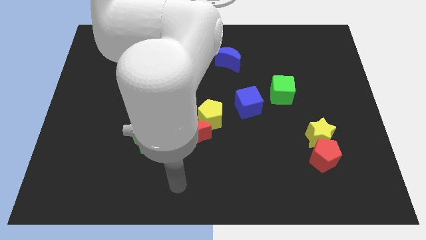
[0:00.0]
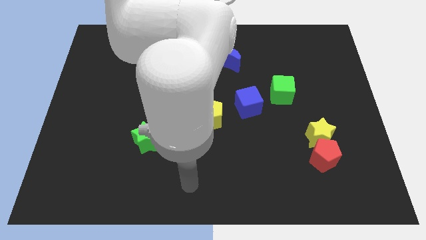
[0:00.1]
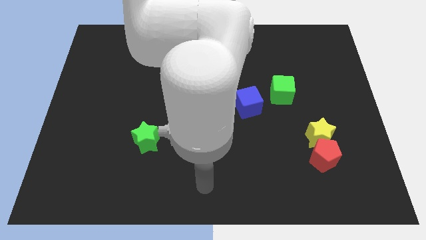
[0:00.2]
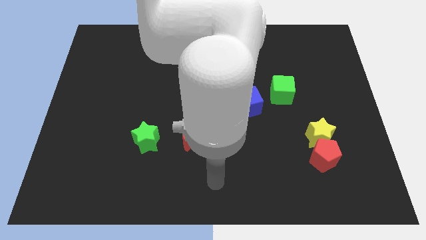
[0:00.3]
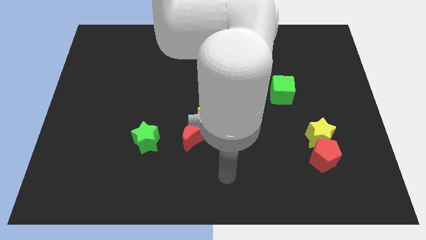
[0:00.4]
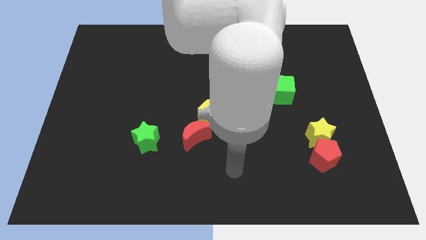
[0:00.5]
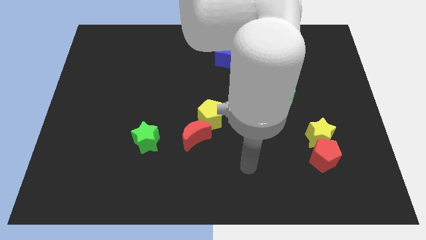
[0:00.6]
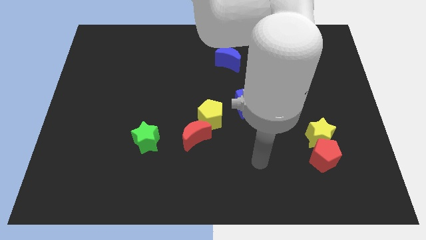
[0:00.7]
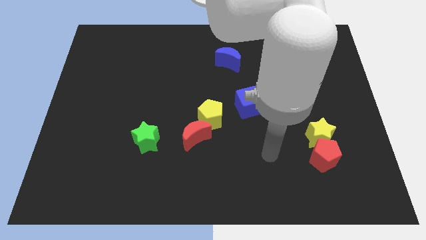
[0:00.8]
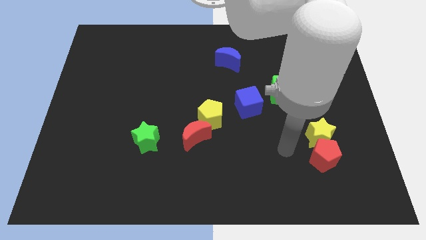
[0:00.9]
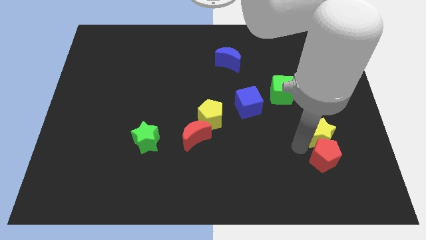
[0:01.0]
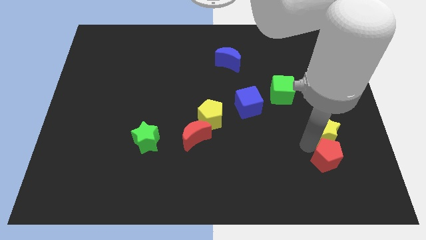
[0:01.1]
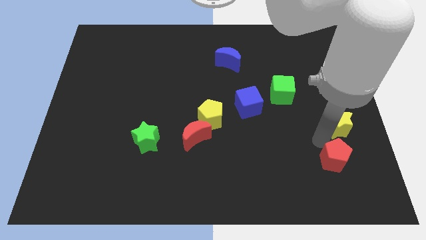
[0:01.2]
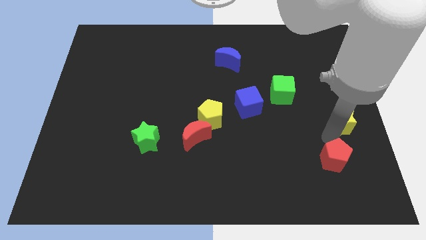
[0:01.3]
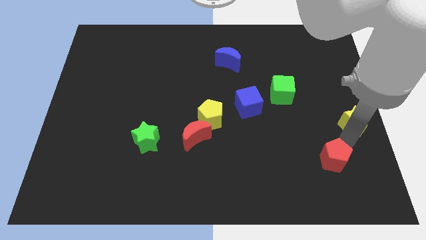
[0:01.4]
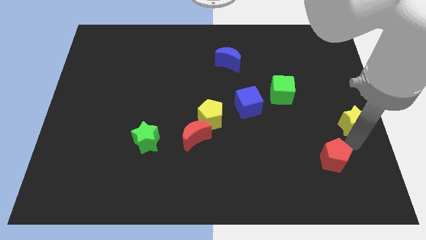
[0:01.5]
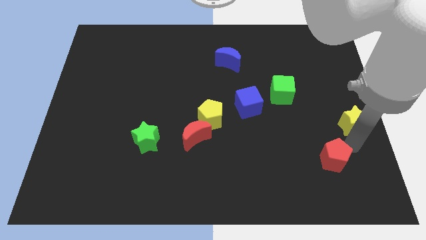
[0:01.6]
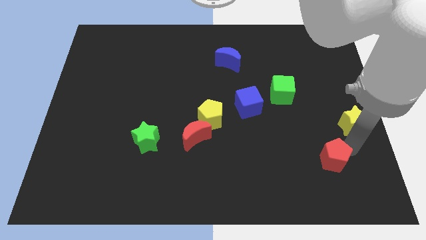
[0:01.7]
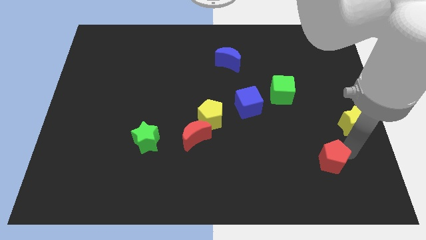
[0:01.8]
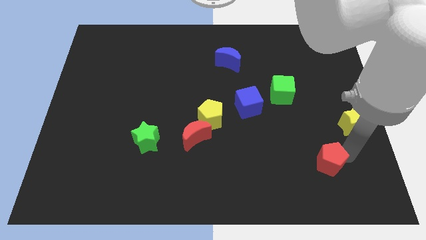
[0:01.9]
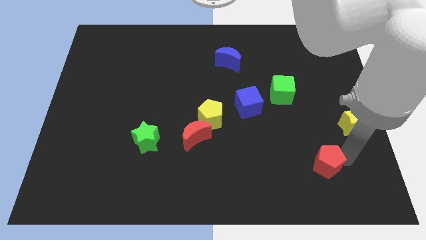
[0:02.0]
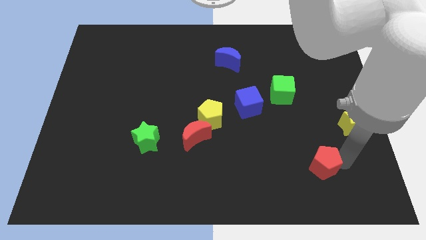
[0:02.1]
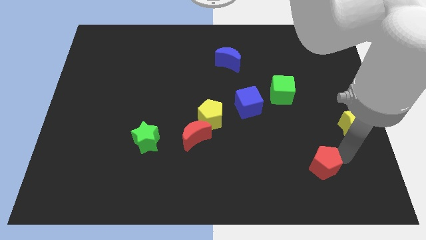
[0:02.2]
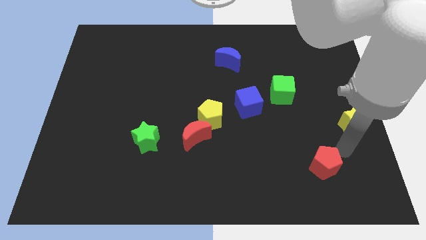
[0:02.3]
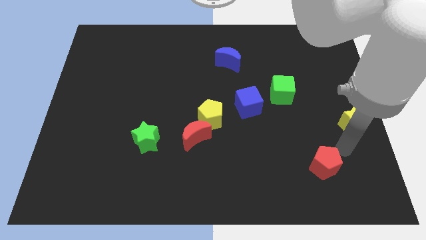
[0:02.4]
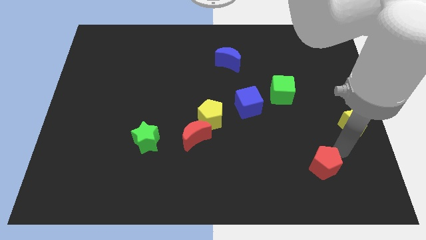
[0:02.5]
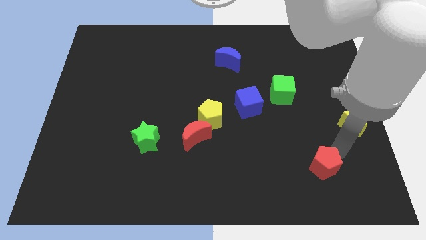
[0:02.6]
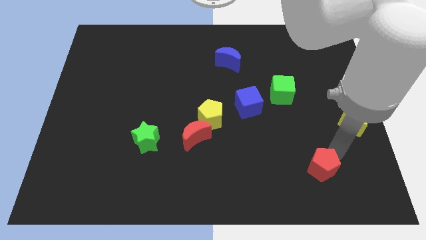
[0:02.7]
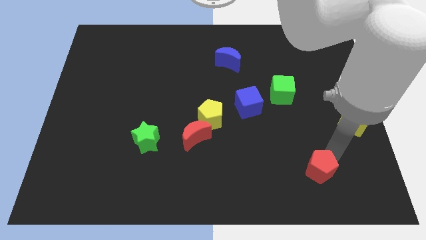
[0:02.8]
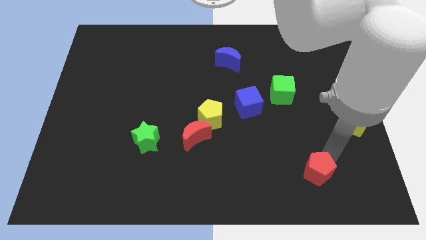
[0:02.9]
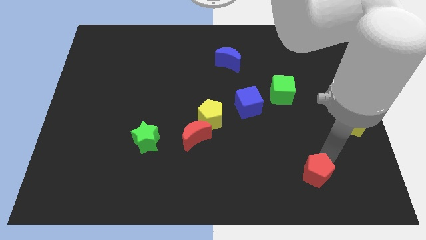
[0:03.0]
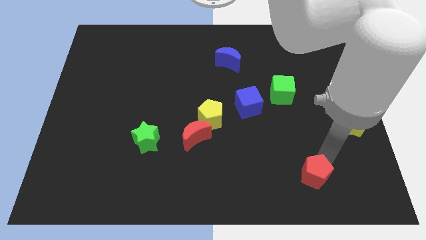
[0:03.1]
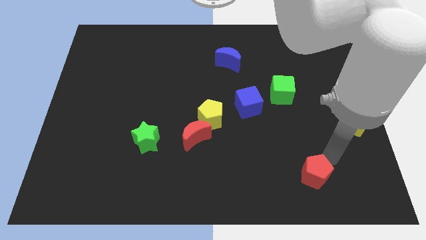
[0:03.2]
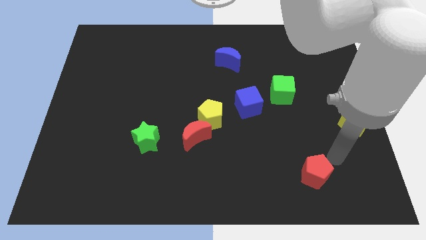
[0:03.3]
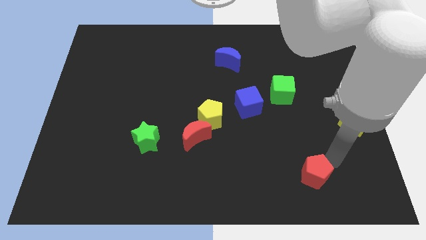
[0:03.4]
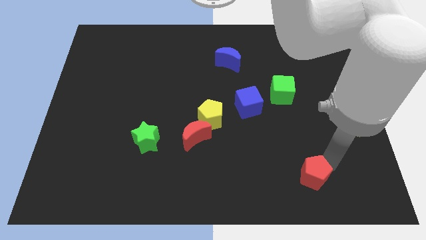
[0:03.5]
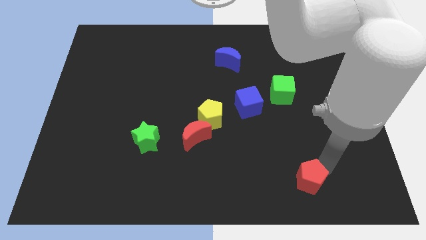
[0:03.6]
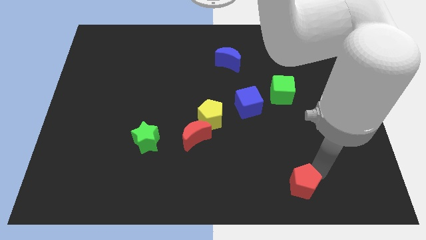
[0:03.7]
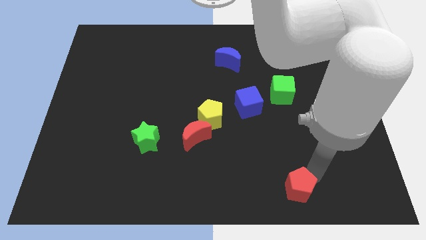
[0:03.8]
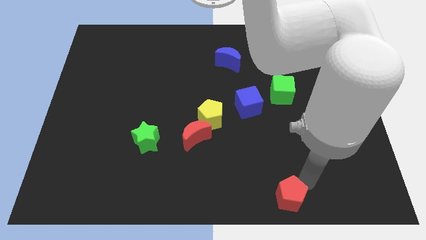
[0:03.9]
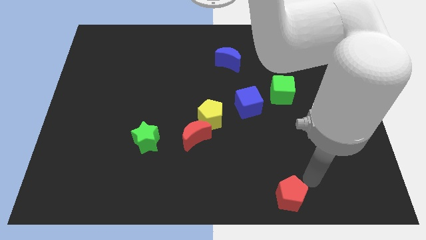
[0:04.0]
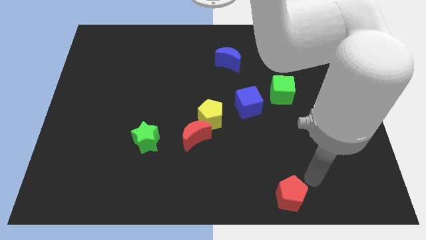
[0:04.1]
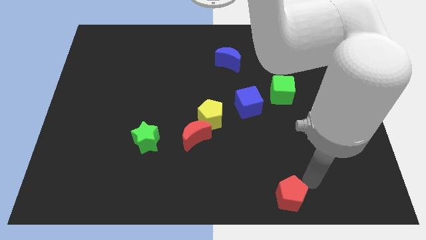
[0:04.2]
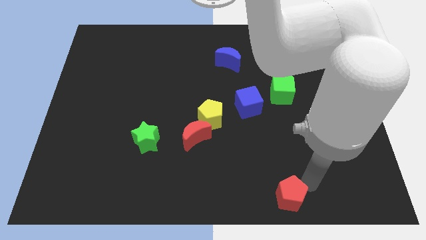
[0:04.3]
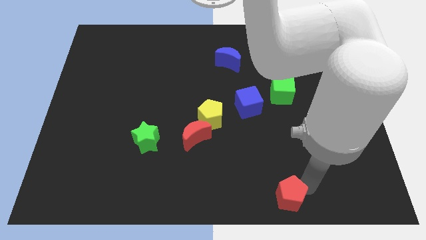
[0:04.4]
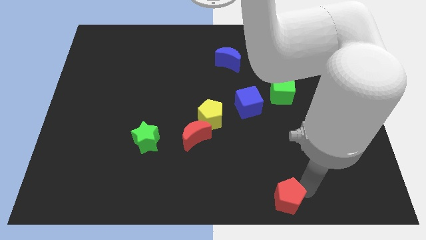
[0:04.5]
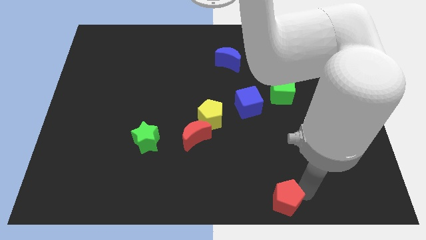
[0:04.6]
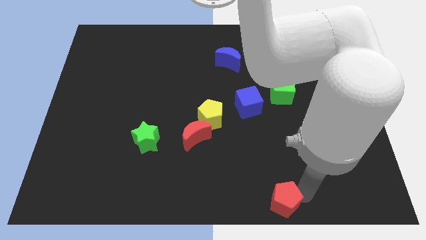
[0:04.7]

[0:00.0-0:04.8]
move the red pentagon to the bottom

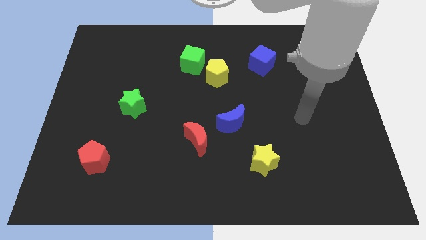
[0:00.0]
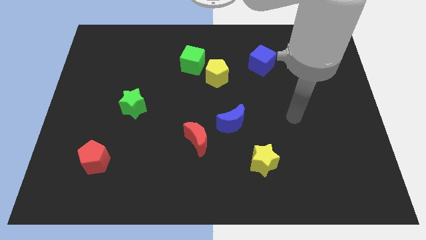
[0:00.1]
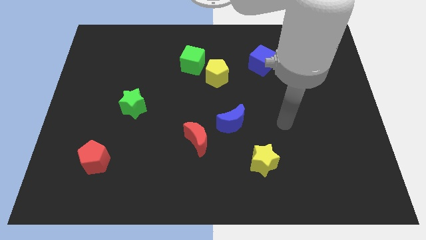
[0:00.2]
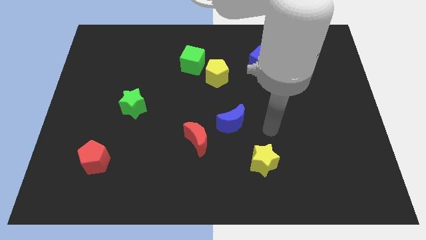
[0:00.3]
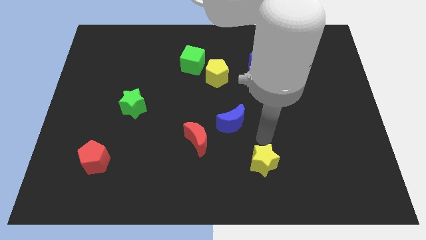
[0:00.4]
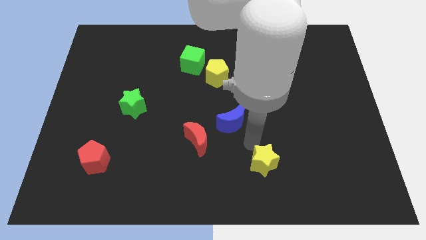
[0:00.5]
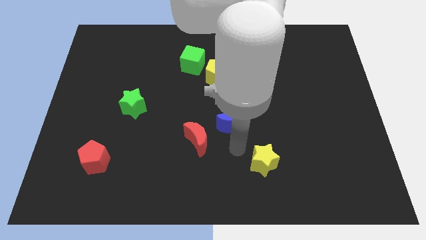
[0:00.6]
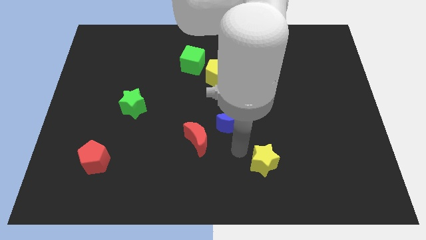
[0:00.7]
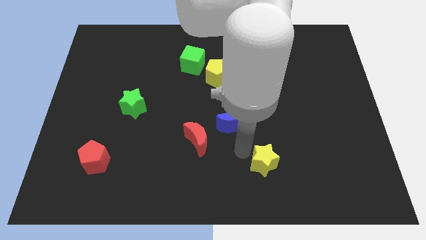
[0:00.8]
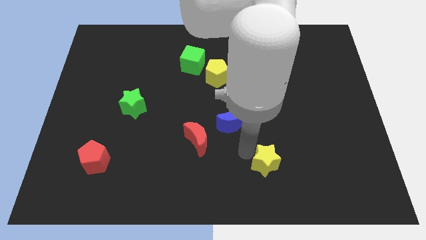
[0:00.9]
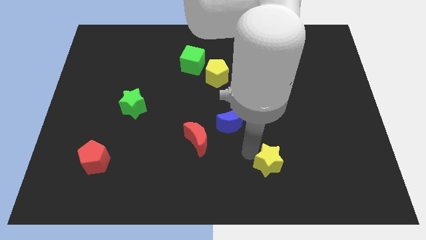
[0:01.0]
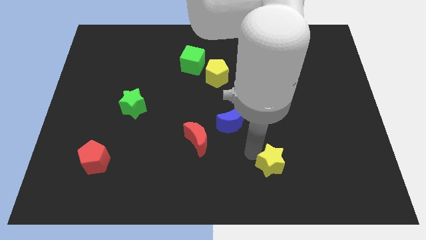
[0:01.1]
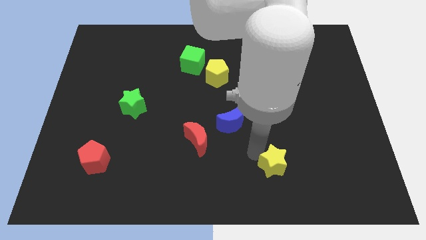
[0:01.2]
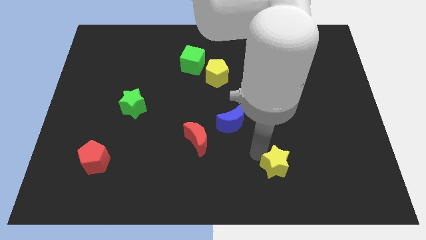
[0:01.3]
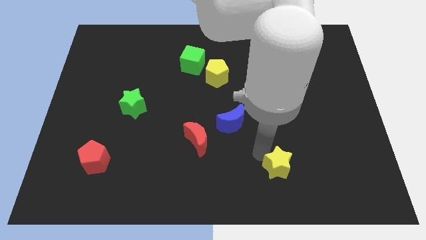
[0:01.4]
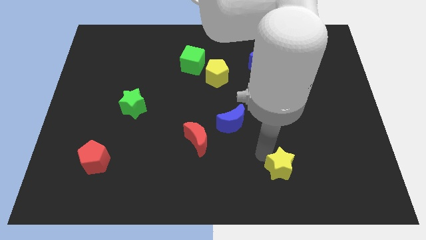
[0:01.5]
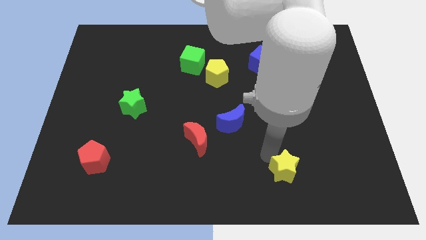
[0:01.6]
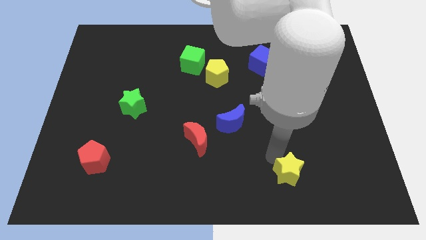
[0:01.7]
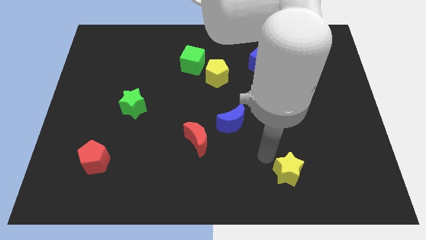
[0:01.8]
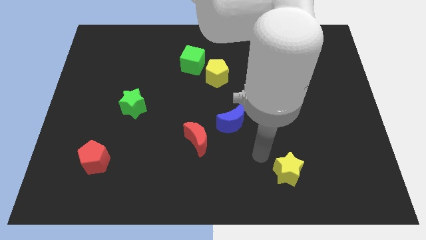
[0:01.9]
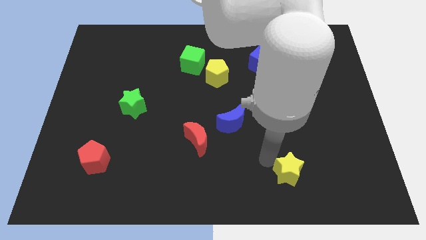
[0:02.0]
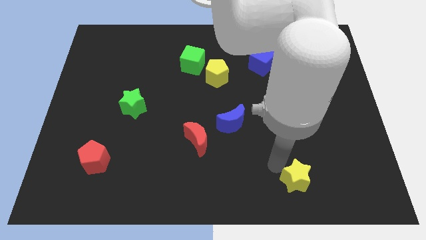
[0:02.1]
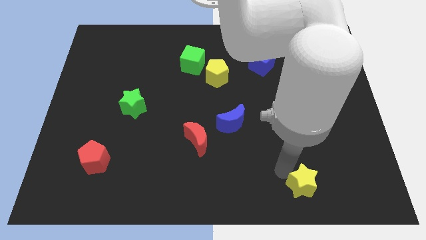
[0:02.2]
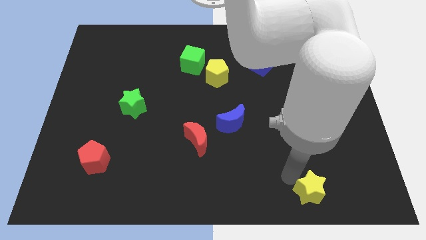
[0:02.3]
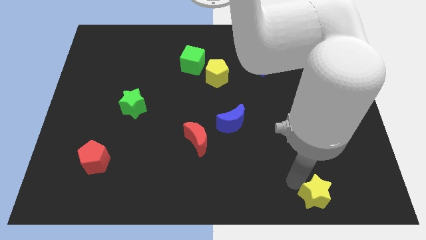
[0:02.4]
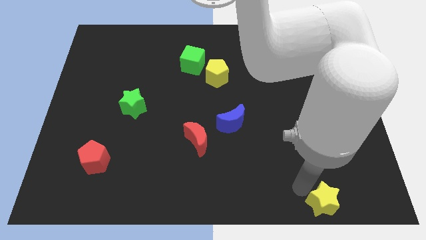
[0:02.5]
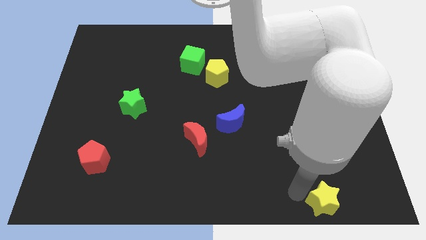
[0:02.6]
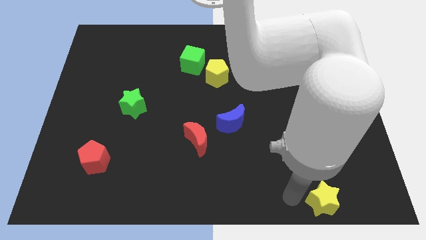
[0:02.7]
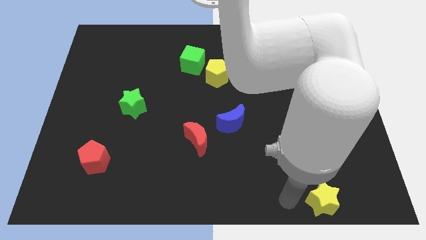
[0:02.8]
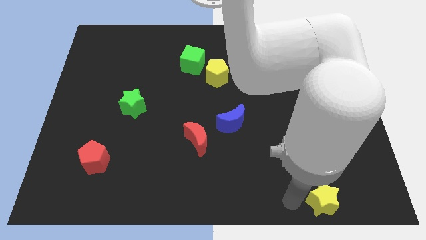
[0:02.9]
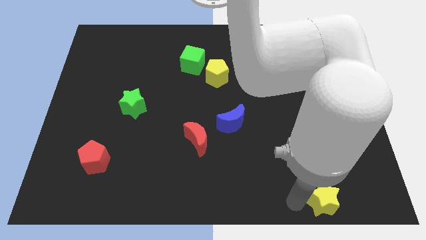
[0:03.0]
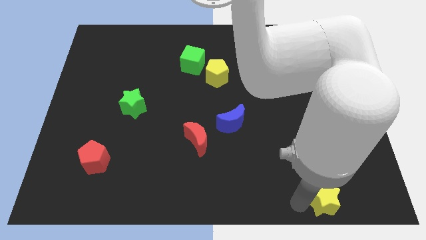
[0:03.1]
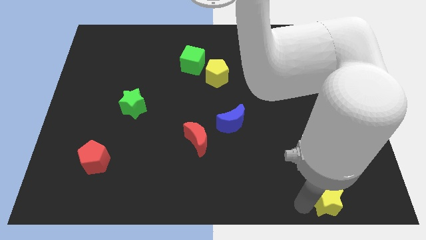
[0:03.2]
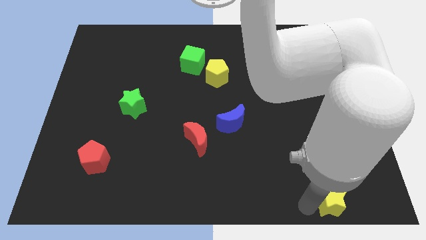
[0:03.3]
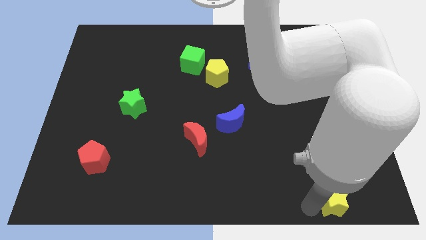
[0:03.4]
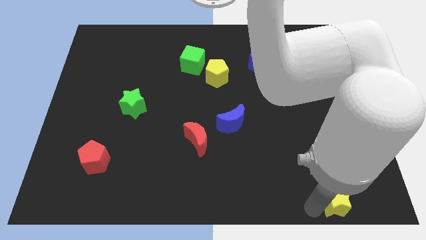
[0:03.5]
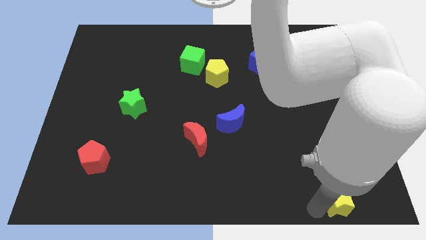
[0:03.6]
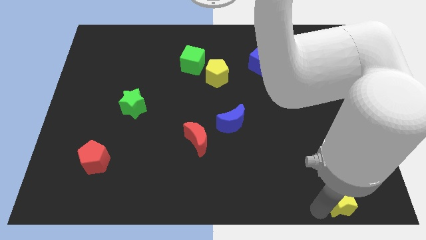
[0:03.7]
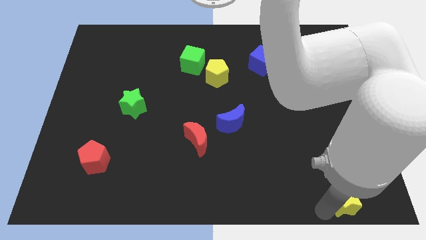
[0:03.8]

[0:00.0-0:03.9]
move the yellow star to the bottom right of the board
